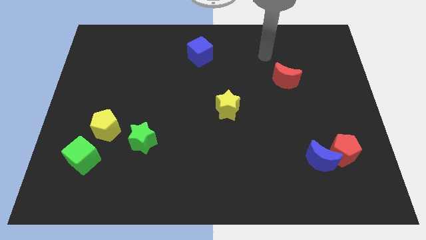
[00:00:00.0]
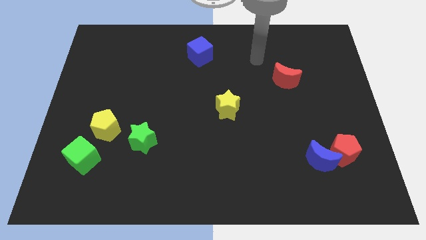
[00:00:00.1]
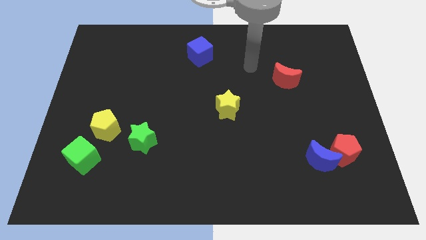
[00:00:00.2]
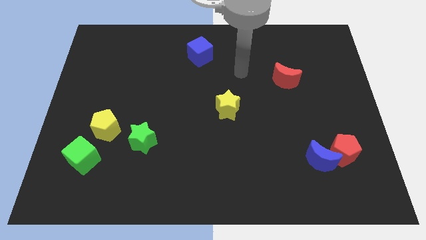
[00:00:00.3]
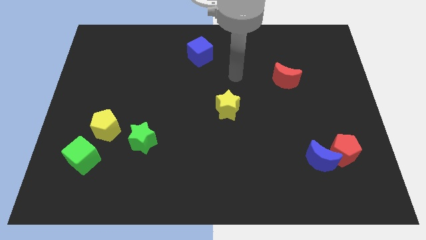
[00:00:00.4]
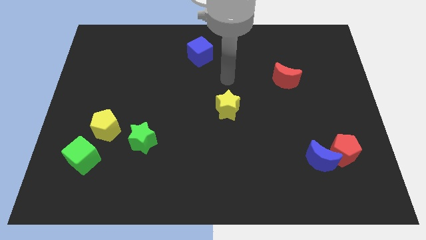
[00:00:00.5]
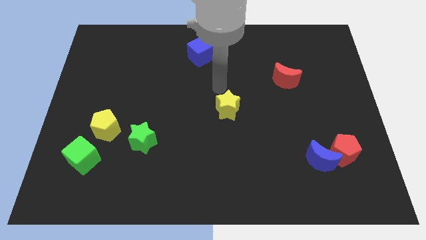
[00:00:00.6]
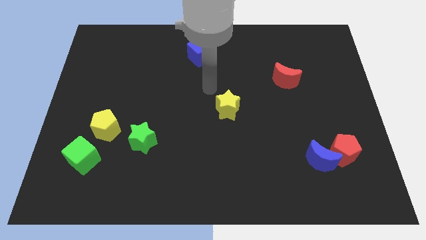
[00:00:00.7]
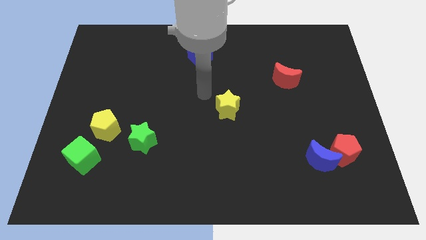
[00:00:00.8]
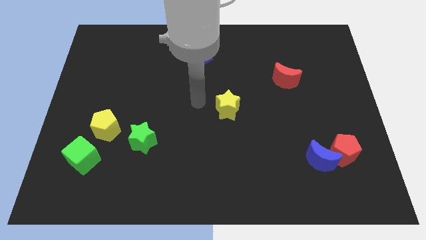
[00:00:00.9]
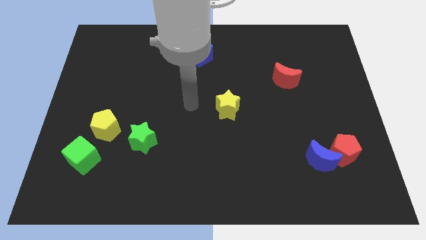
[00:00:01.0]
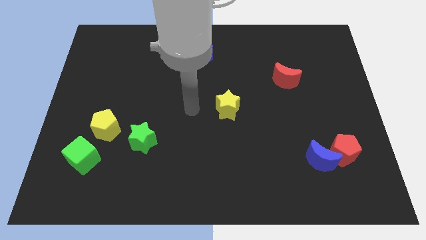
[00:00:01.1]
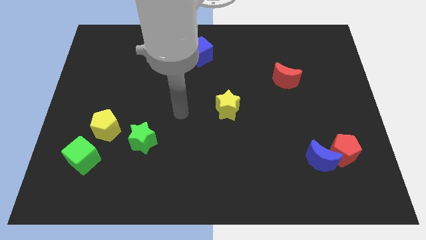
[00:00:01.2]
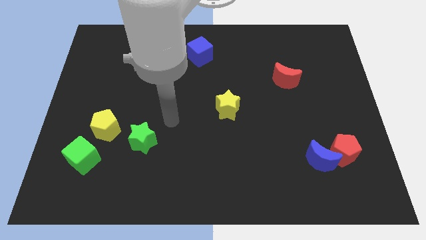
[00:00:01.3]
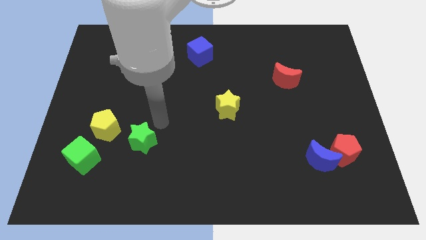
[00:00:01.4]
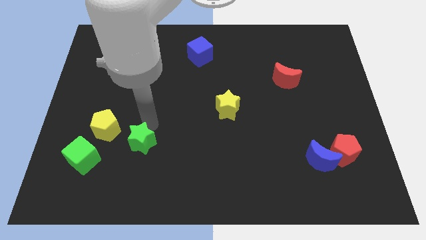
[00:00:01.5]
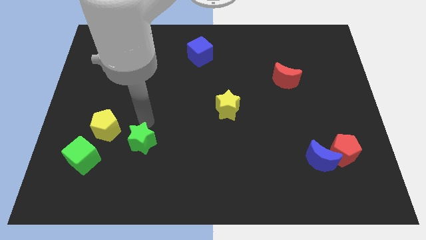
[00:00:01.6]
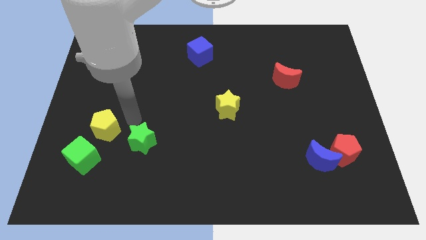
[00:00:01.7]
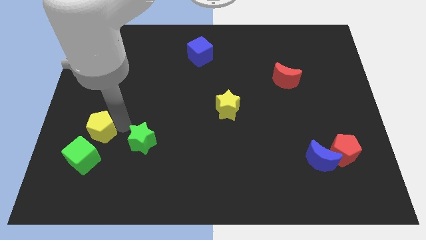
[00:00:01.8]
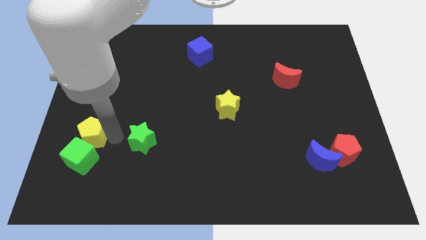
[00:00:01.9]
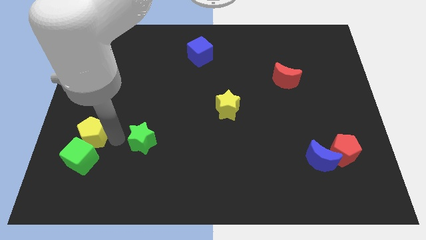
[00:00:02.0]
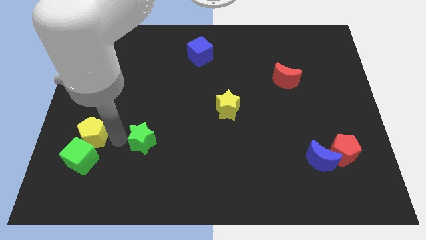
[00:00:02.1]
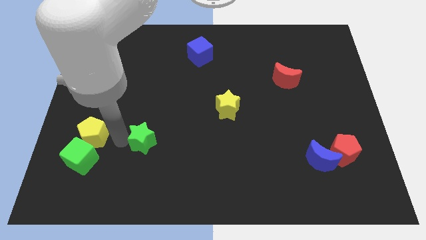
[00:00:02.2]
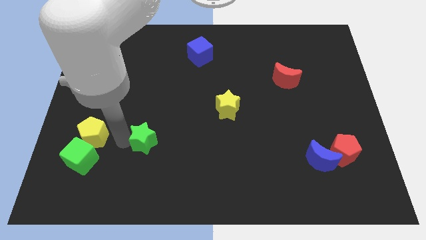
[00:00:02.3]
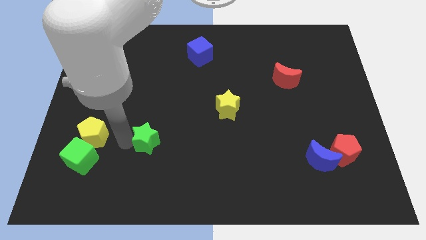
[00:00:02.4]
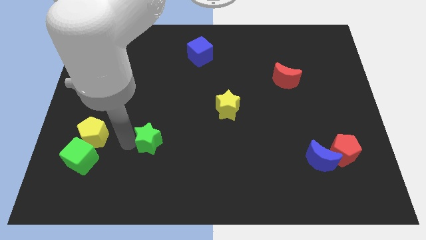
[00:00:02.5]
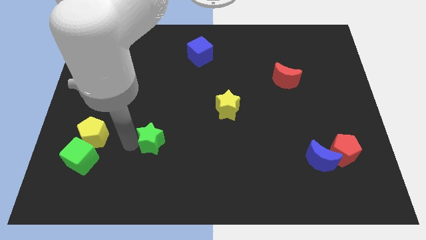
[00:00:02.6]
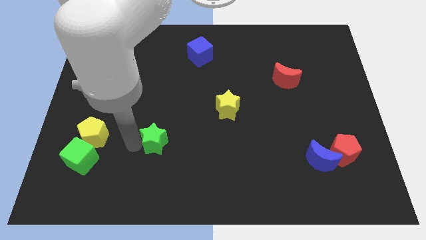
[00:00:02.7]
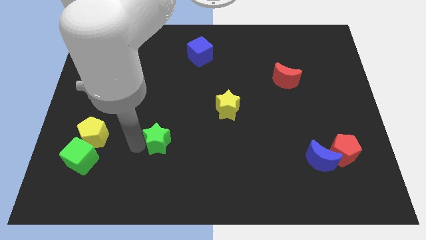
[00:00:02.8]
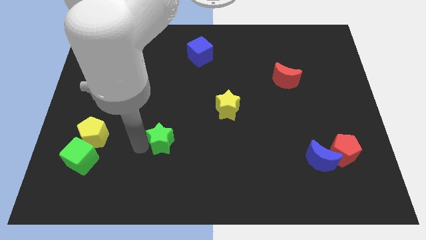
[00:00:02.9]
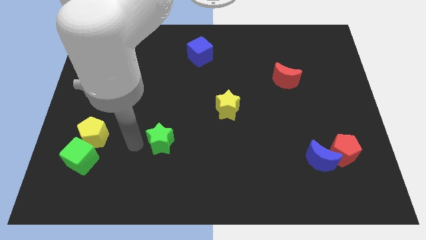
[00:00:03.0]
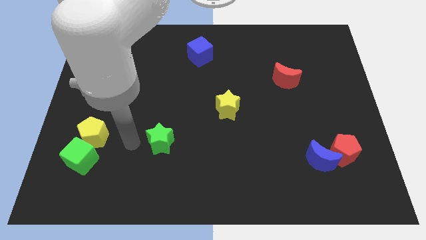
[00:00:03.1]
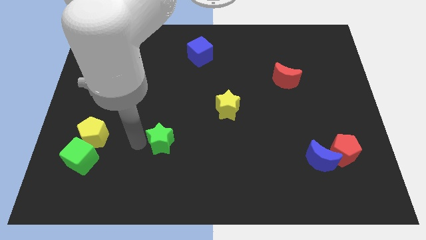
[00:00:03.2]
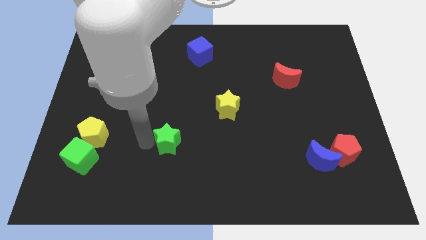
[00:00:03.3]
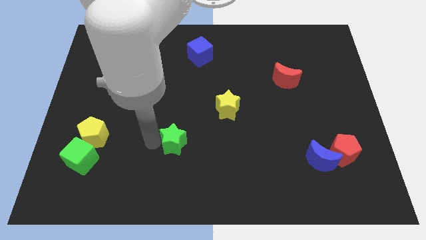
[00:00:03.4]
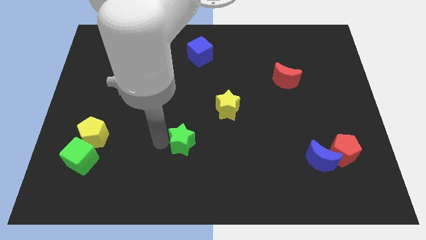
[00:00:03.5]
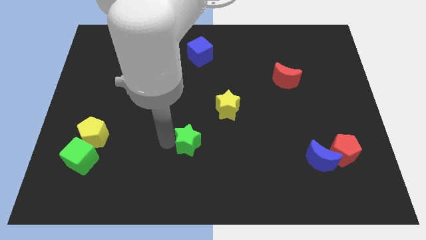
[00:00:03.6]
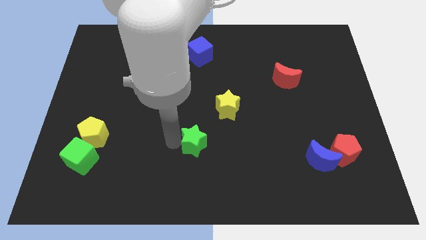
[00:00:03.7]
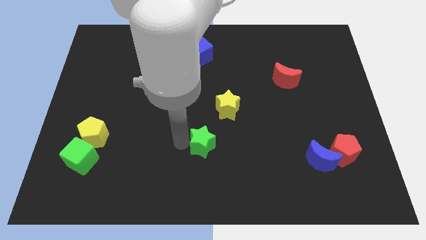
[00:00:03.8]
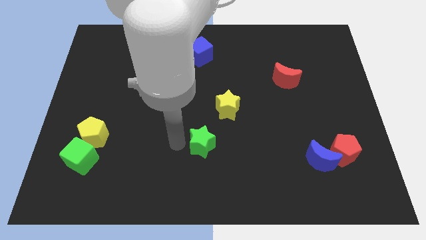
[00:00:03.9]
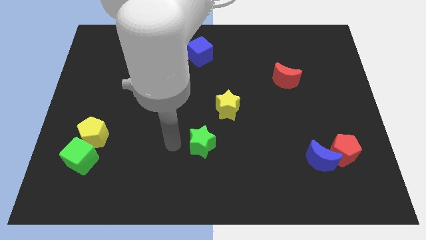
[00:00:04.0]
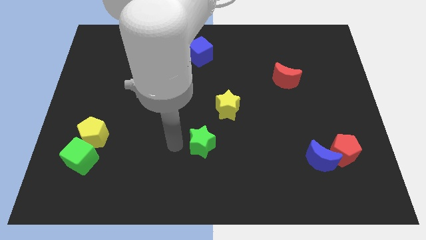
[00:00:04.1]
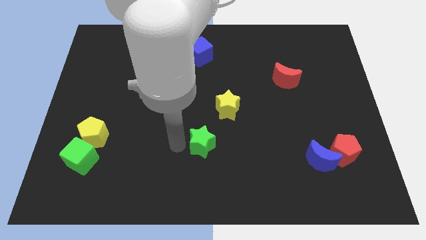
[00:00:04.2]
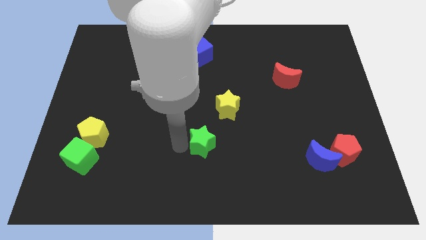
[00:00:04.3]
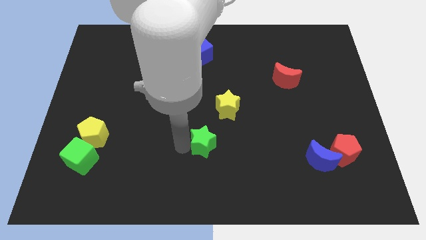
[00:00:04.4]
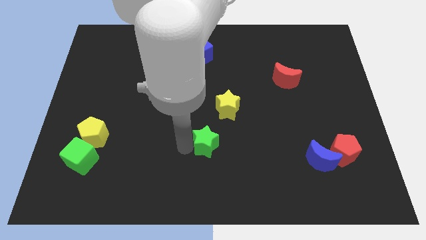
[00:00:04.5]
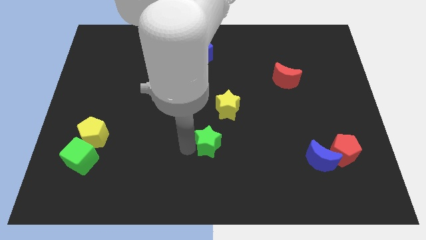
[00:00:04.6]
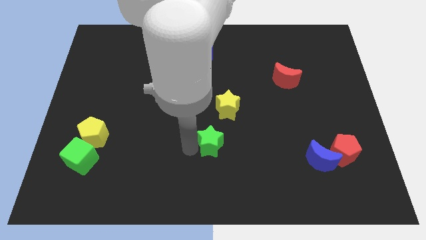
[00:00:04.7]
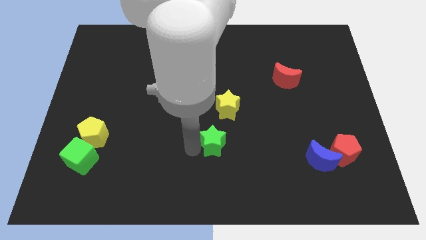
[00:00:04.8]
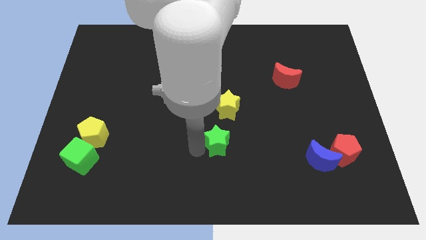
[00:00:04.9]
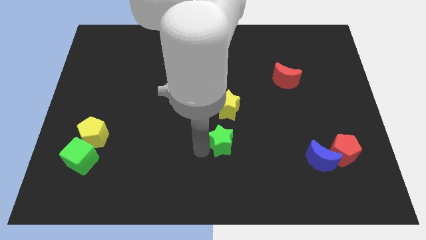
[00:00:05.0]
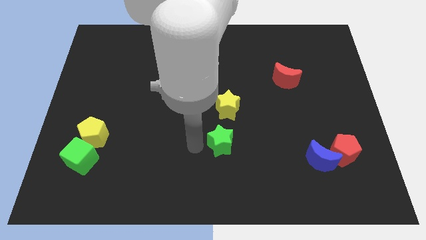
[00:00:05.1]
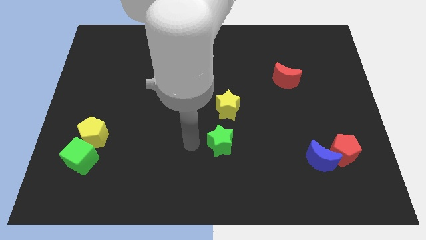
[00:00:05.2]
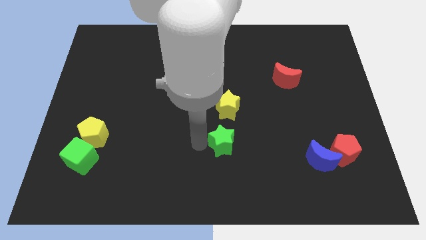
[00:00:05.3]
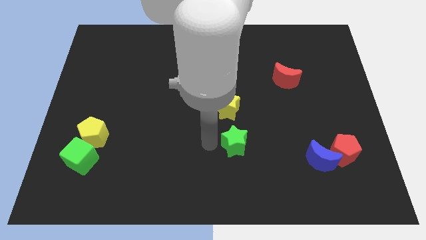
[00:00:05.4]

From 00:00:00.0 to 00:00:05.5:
push the green star to the right

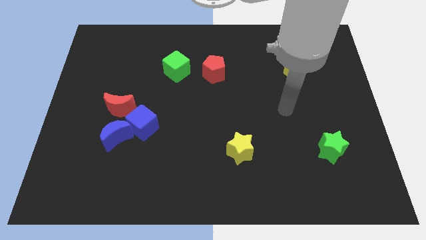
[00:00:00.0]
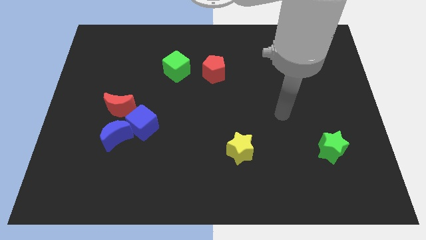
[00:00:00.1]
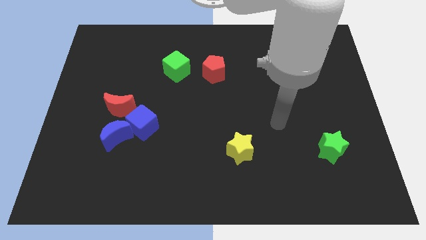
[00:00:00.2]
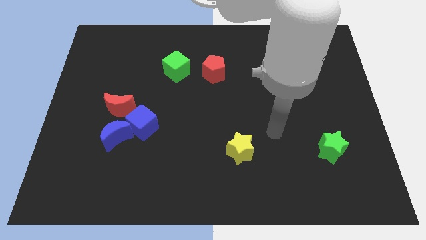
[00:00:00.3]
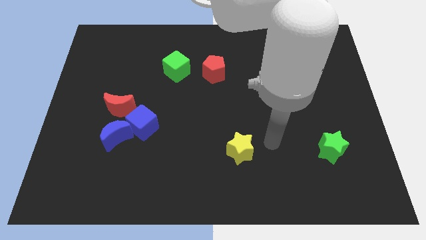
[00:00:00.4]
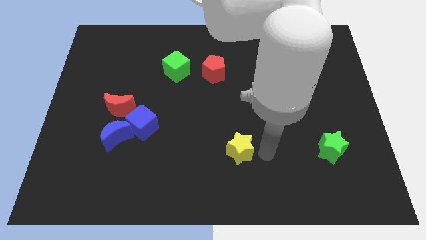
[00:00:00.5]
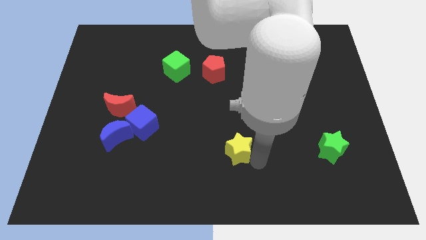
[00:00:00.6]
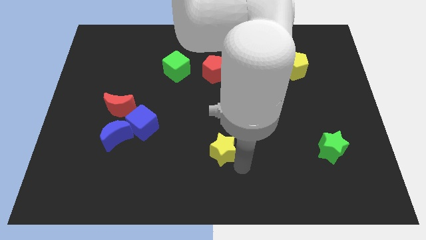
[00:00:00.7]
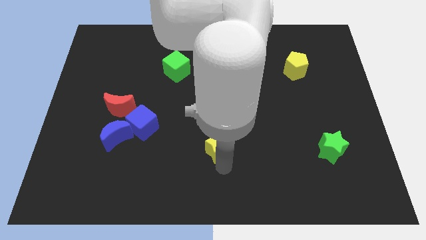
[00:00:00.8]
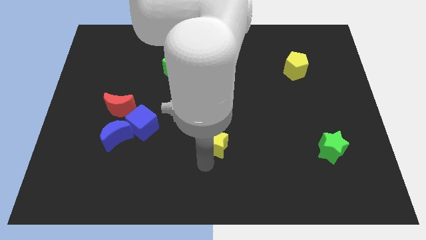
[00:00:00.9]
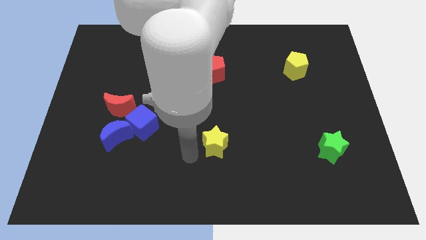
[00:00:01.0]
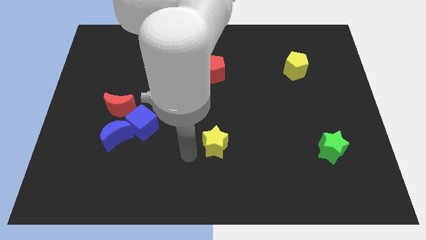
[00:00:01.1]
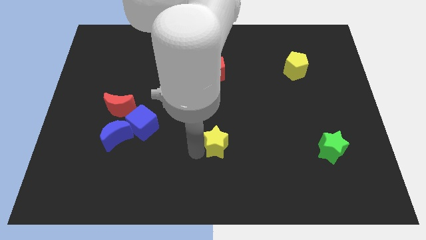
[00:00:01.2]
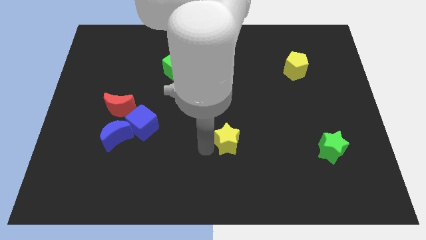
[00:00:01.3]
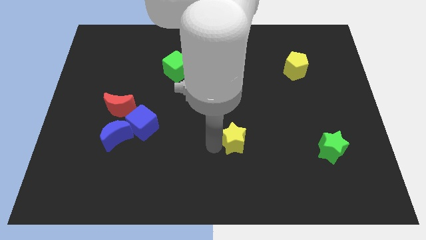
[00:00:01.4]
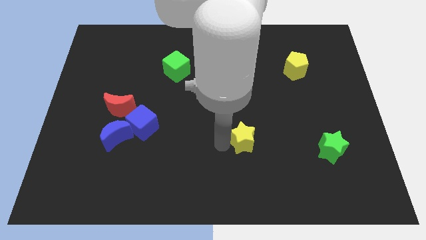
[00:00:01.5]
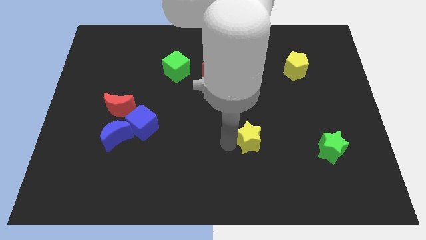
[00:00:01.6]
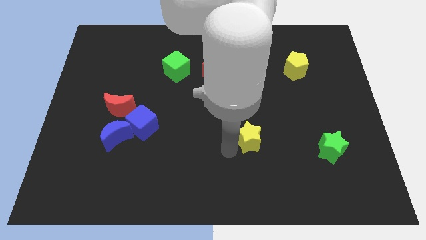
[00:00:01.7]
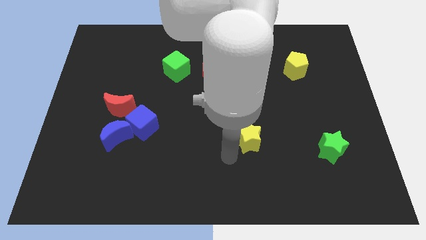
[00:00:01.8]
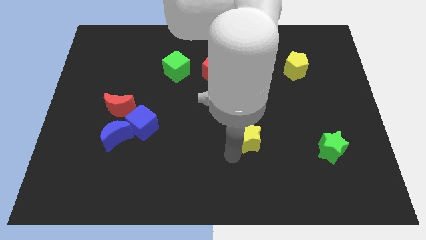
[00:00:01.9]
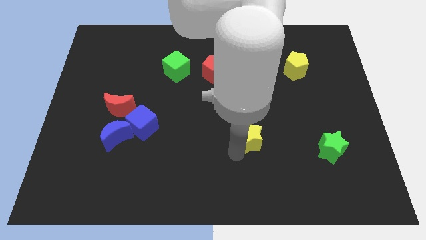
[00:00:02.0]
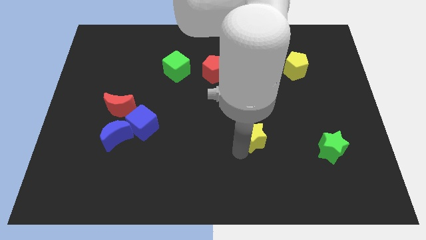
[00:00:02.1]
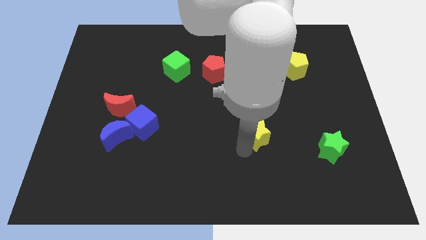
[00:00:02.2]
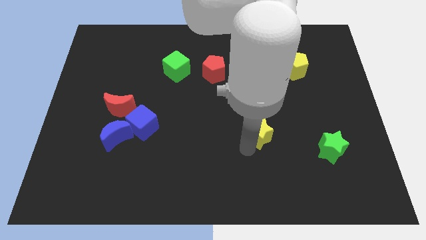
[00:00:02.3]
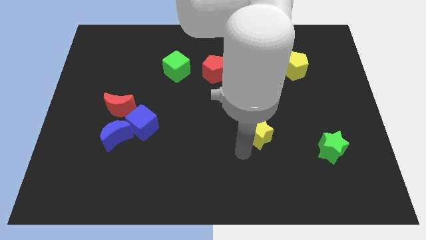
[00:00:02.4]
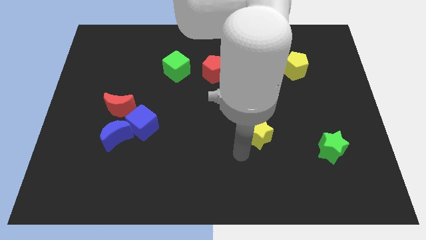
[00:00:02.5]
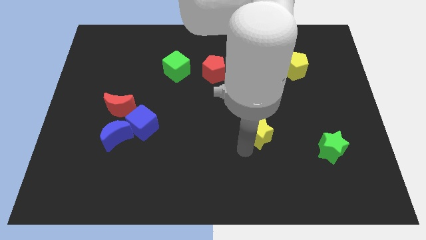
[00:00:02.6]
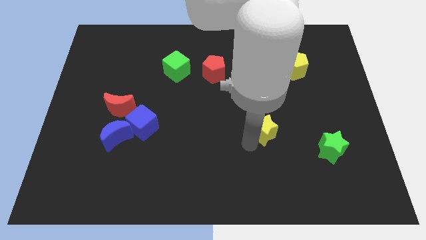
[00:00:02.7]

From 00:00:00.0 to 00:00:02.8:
move the yellow star up and right somewhat
